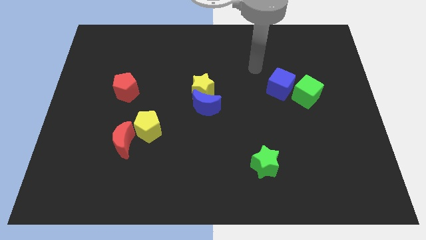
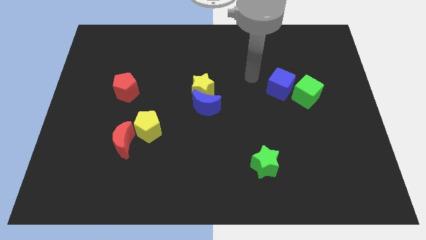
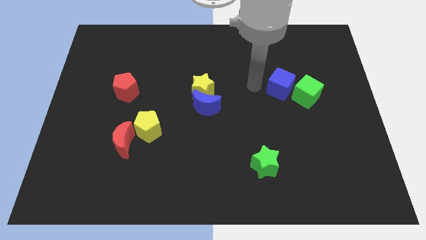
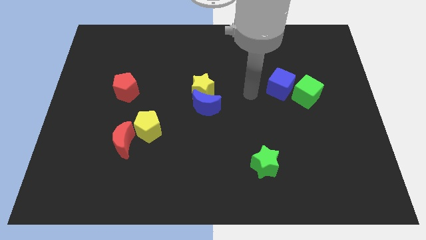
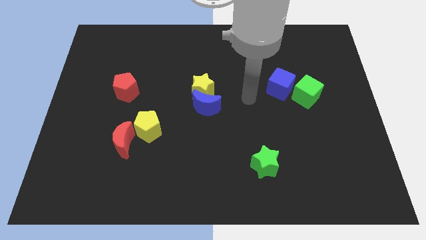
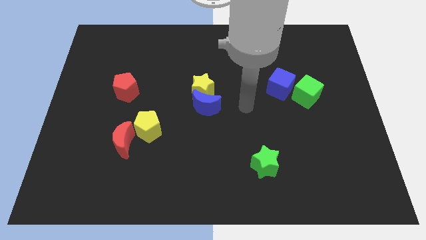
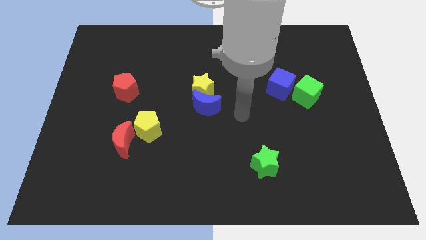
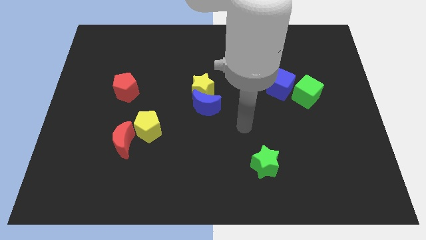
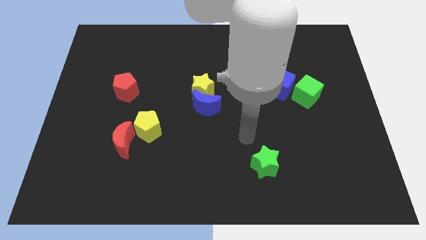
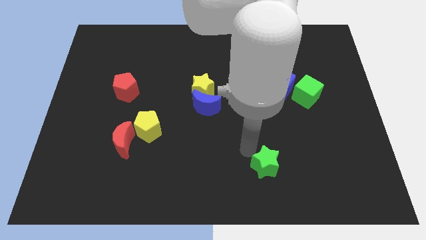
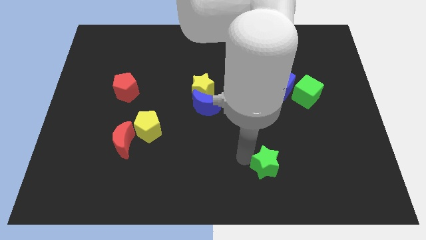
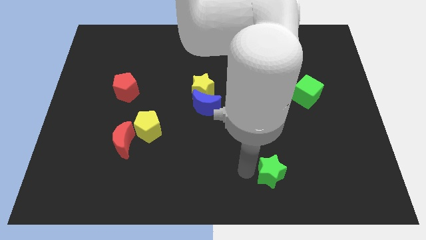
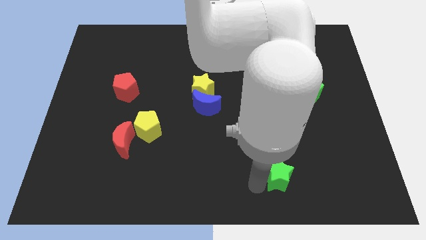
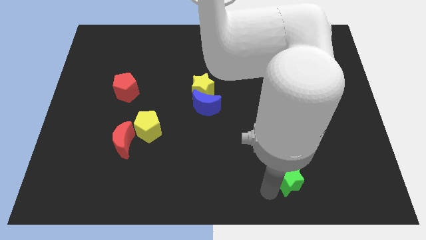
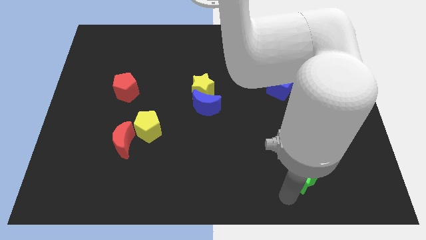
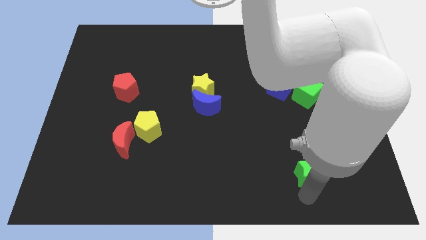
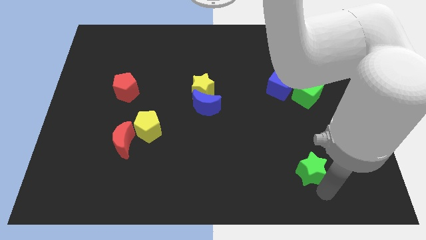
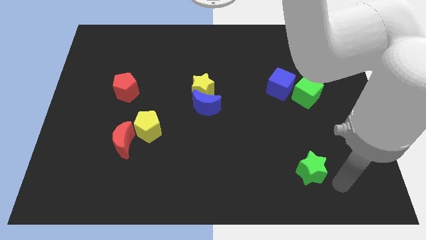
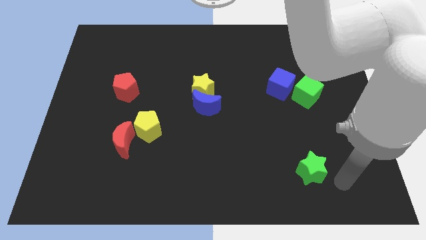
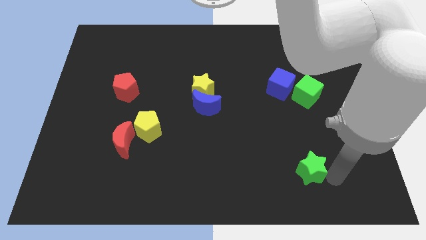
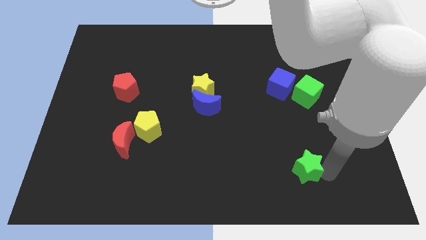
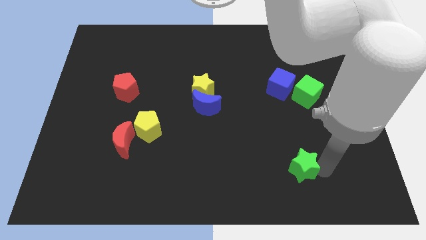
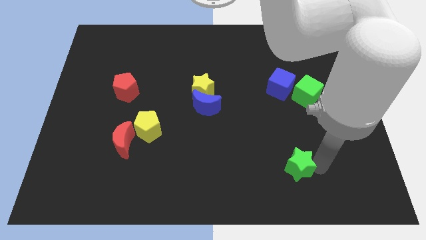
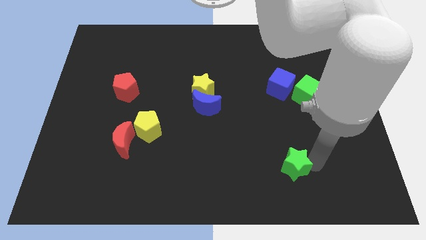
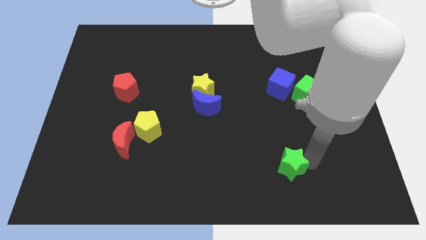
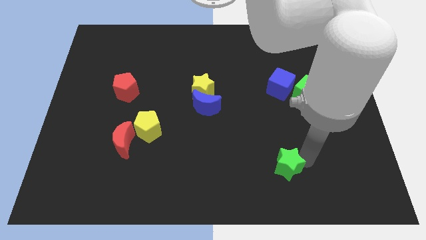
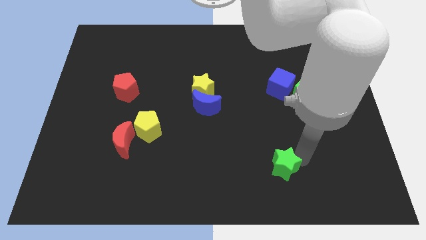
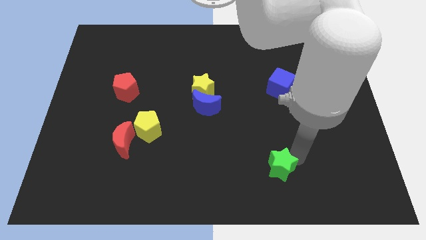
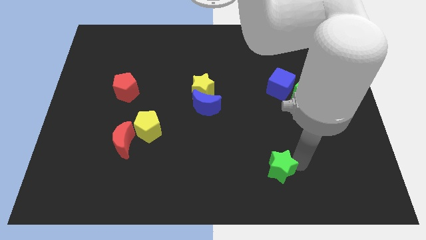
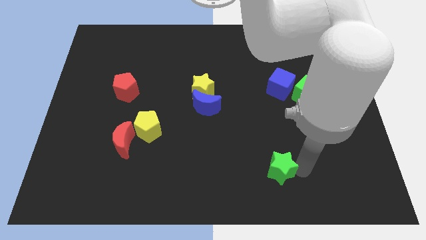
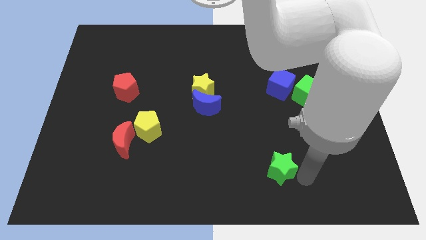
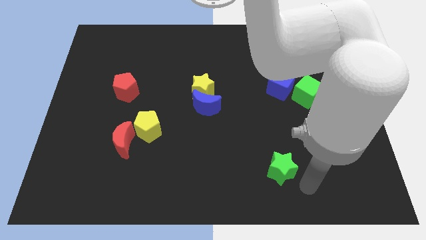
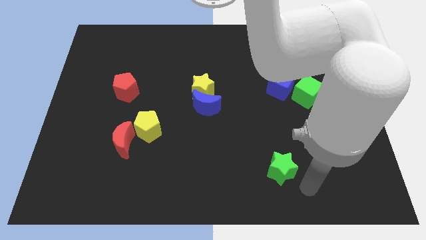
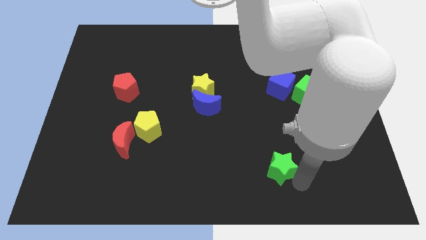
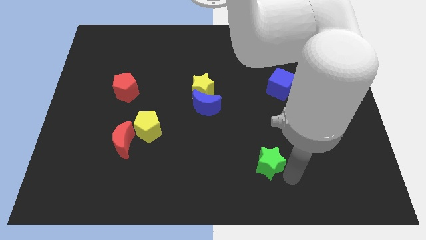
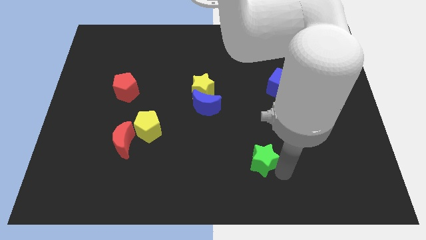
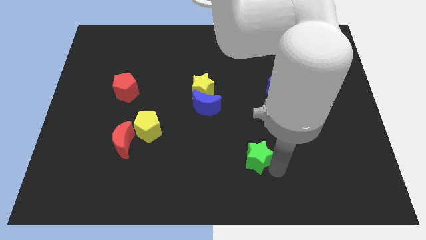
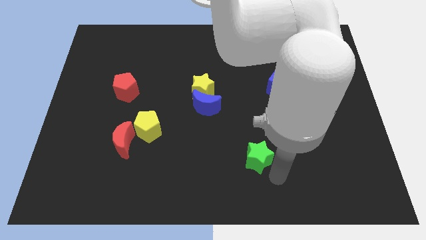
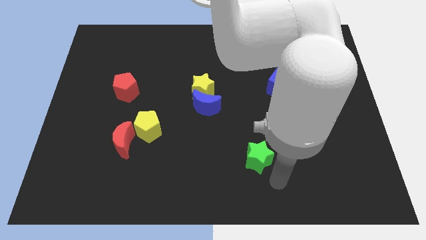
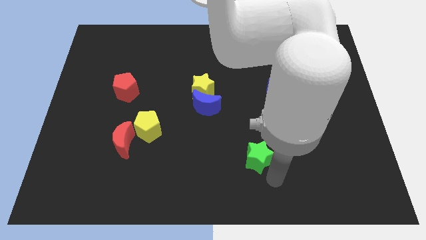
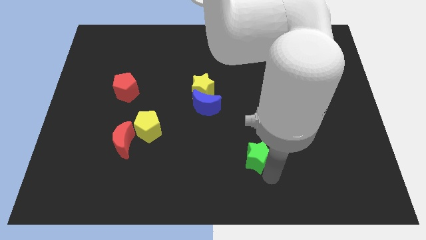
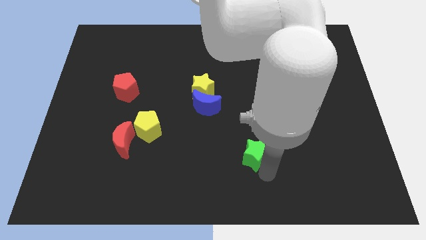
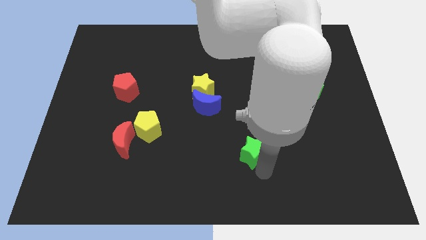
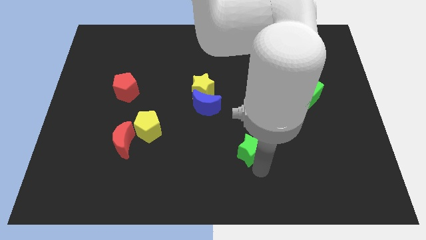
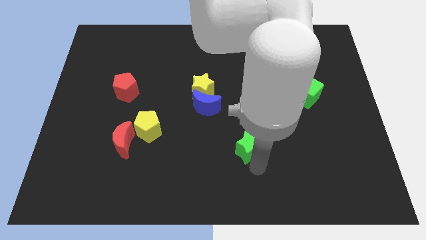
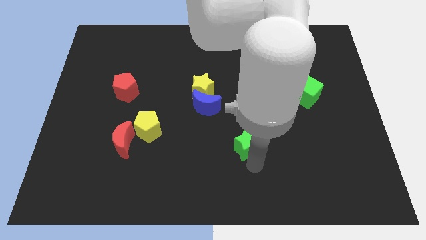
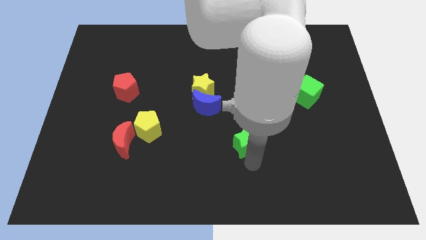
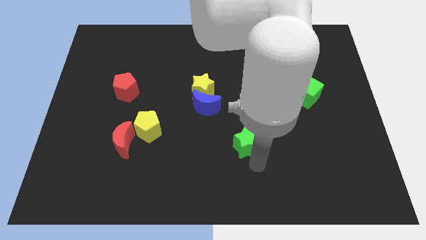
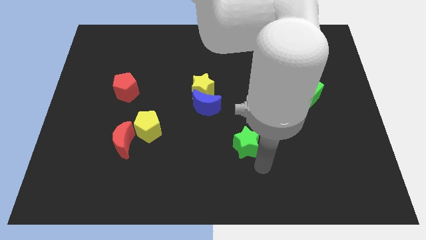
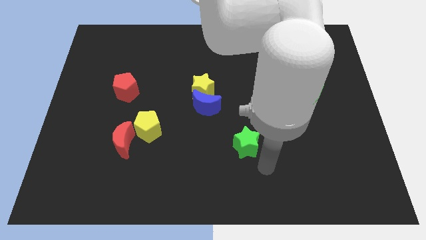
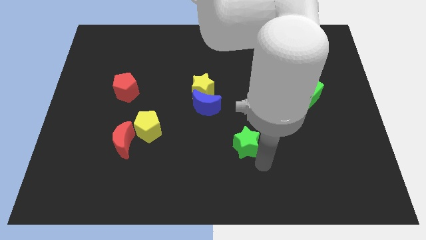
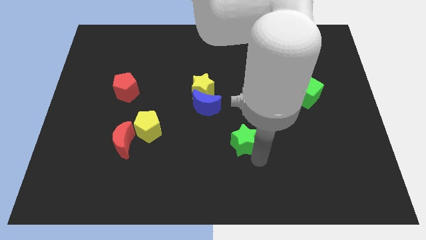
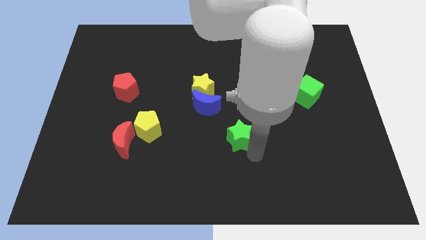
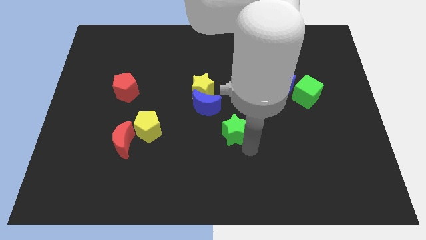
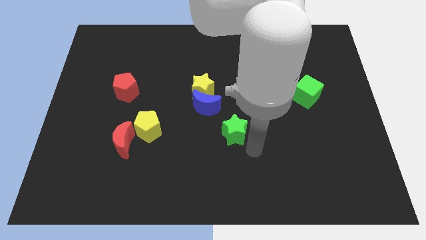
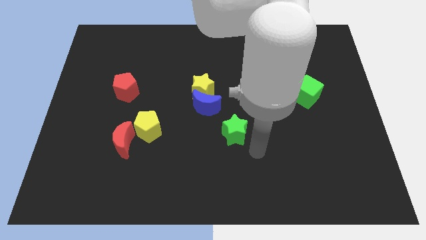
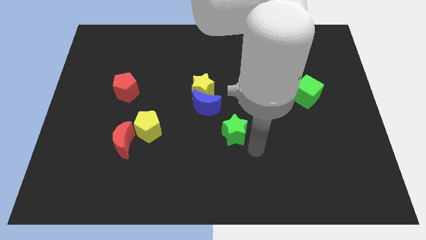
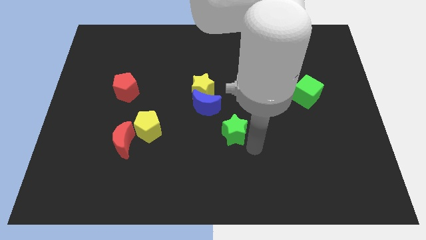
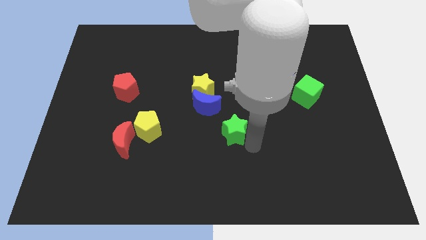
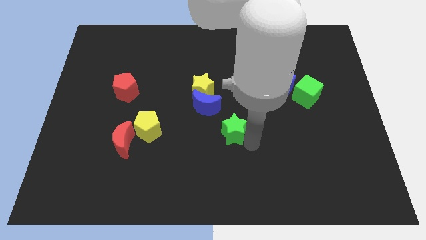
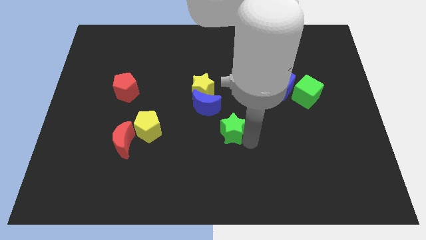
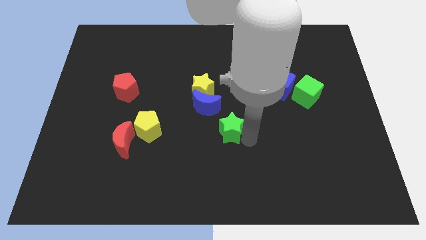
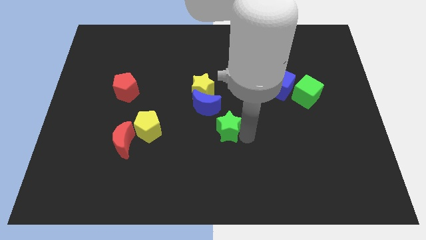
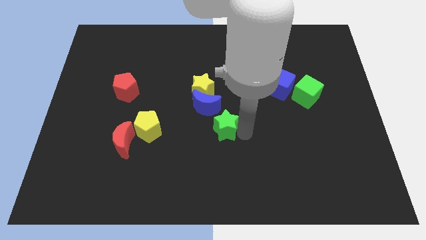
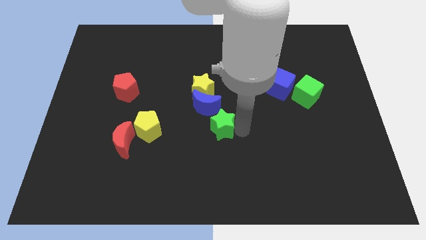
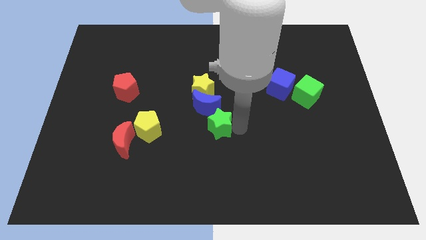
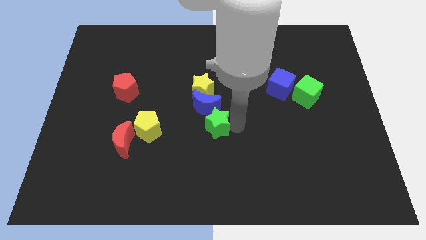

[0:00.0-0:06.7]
push the green star next to the blue moon

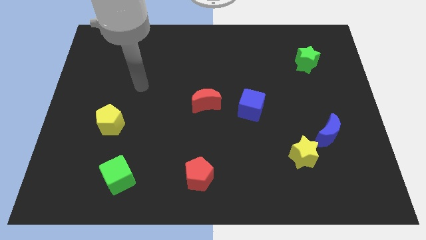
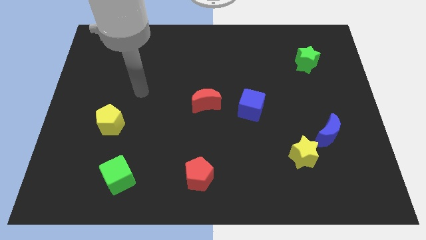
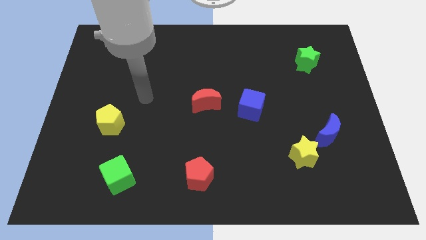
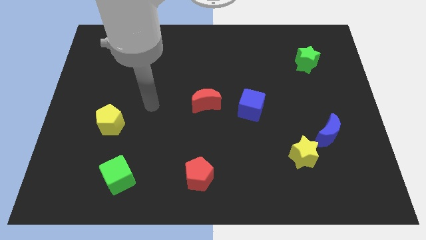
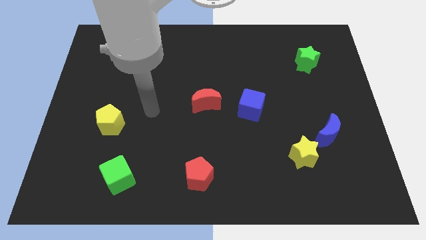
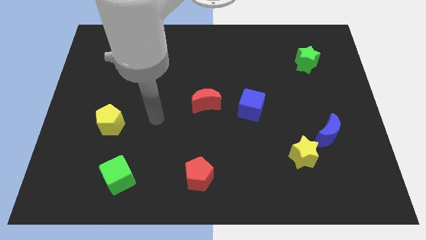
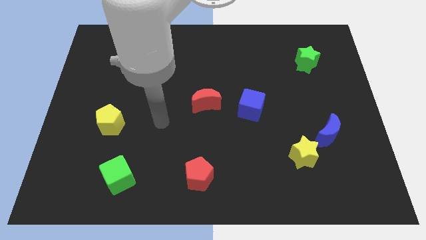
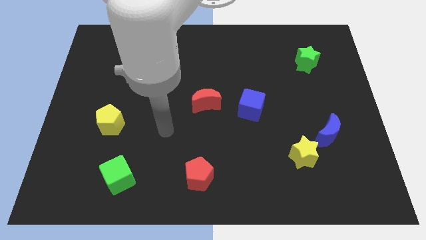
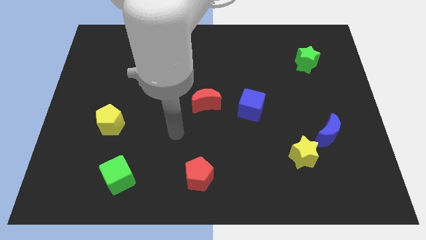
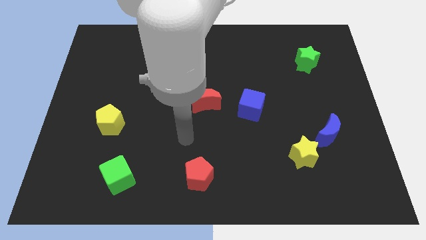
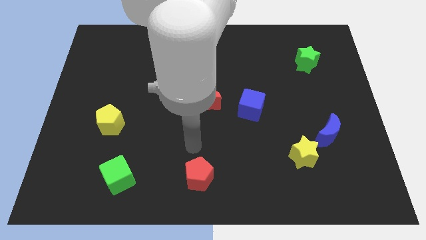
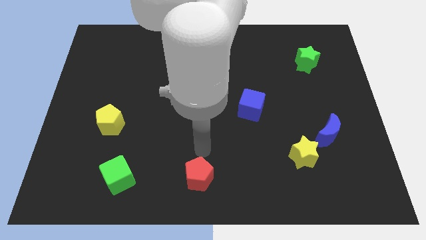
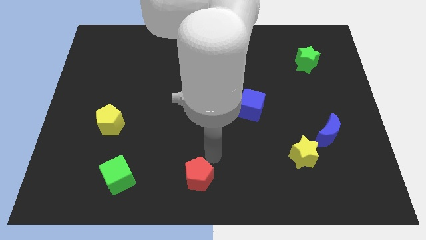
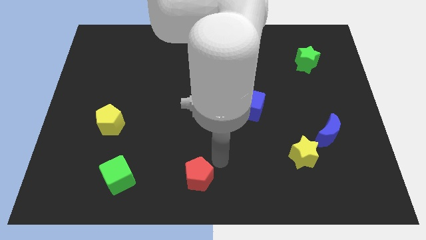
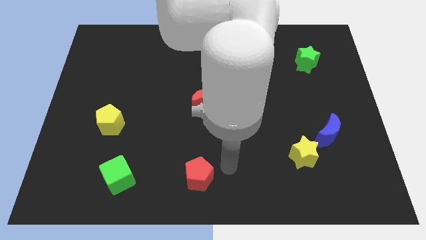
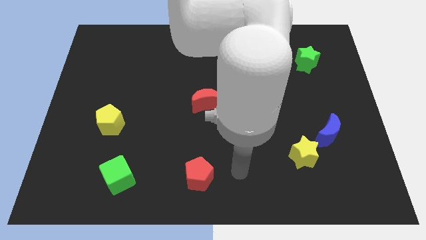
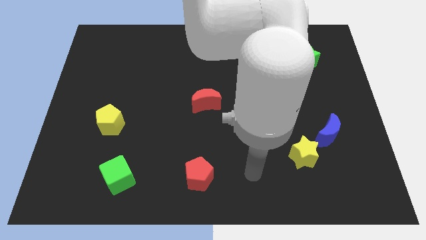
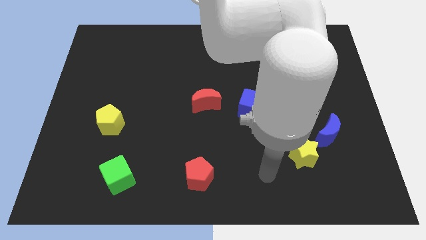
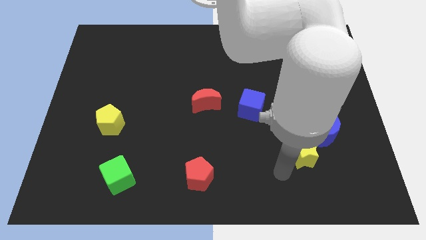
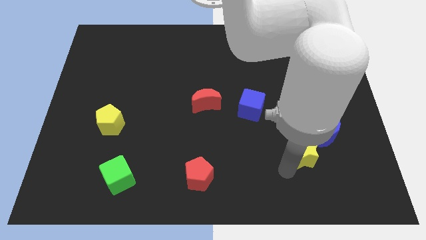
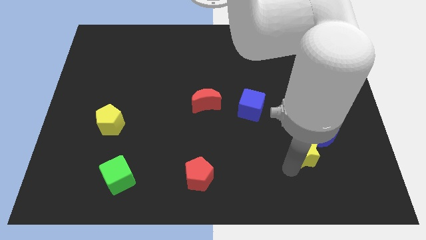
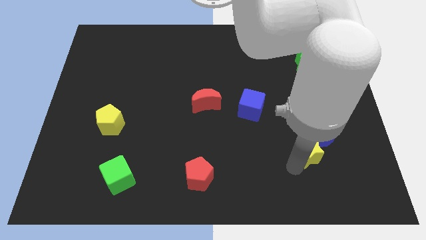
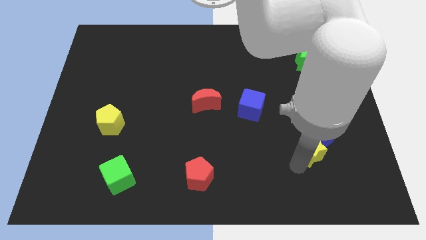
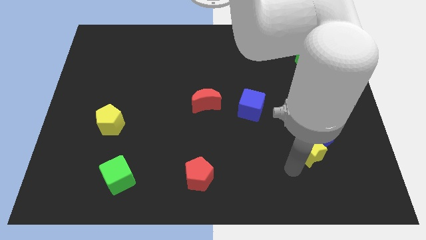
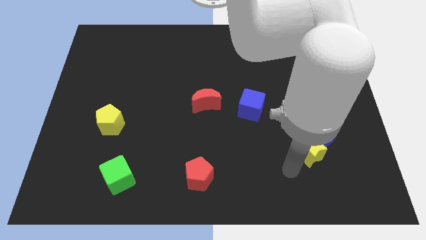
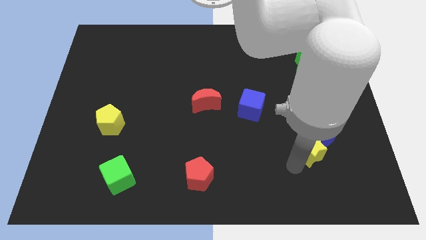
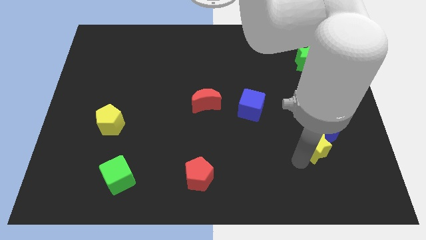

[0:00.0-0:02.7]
push the yellow star to the blue moon
